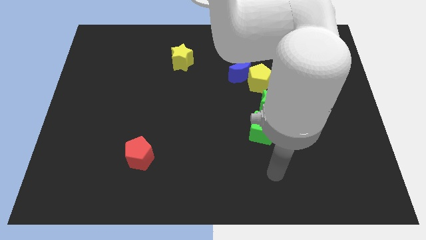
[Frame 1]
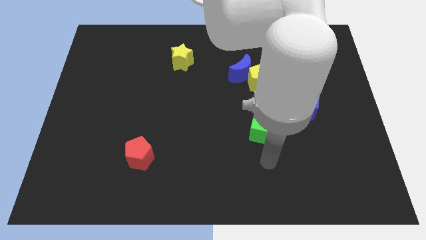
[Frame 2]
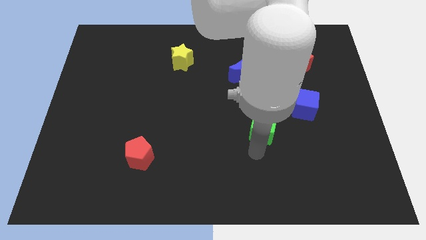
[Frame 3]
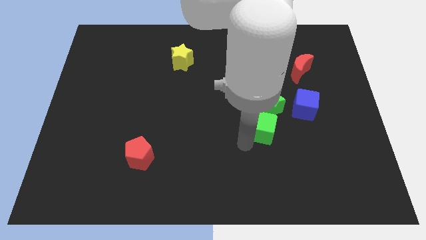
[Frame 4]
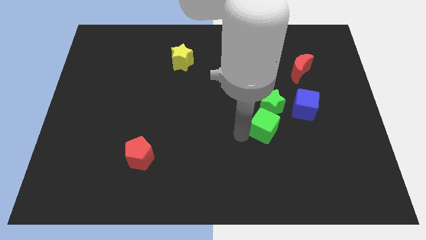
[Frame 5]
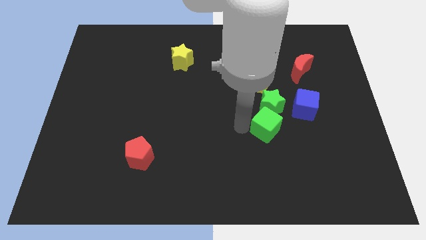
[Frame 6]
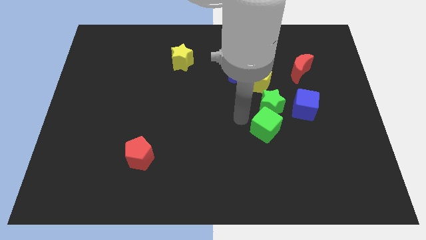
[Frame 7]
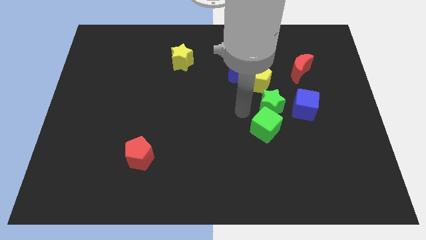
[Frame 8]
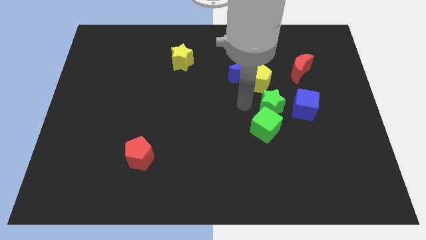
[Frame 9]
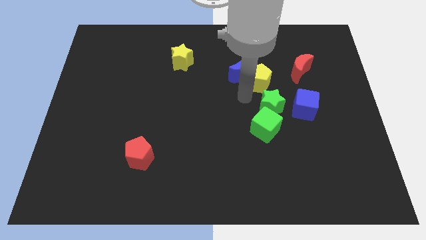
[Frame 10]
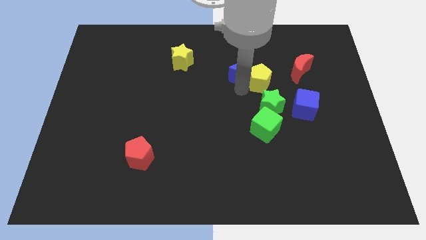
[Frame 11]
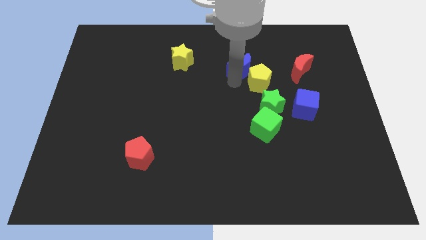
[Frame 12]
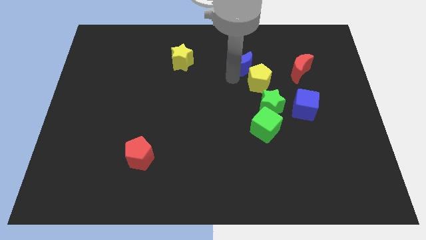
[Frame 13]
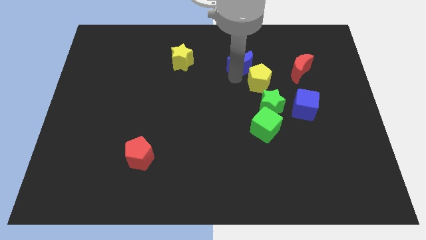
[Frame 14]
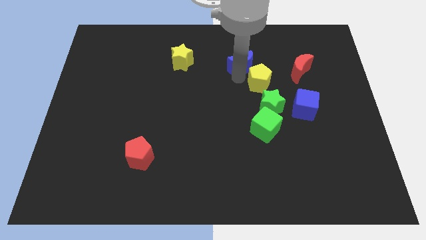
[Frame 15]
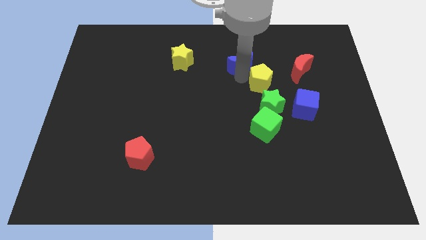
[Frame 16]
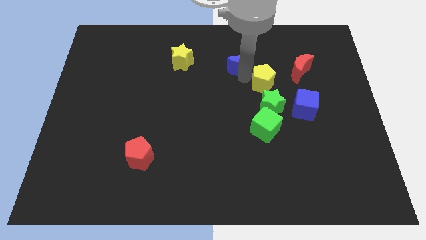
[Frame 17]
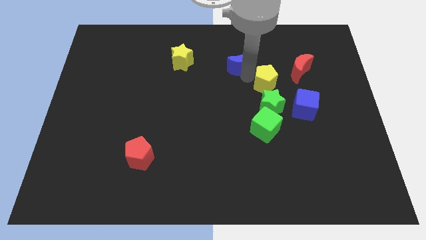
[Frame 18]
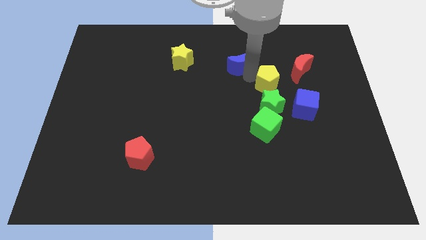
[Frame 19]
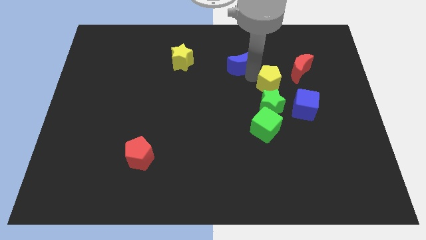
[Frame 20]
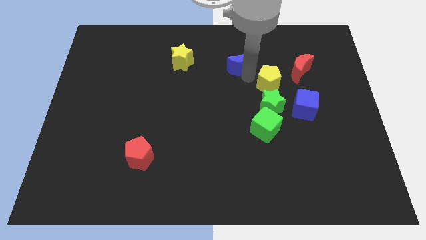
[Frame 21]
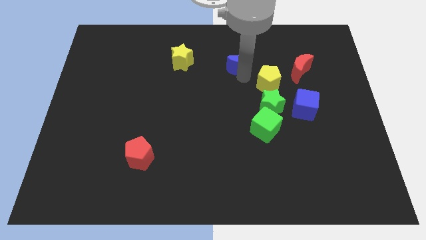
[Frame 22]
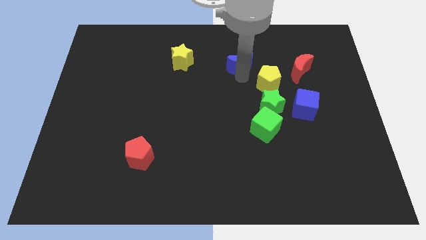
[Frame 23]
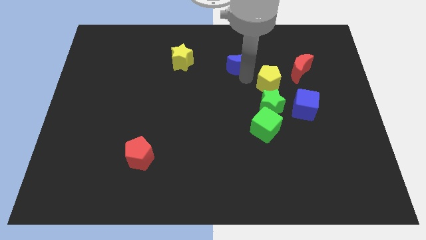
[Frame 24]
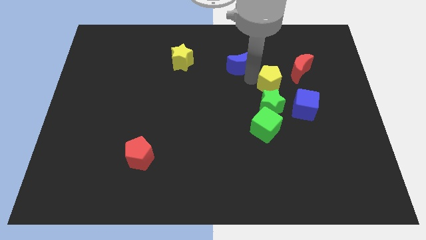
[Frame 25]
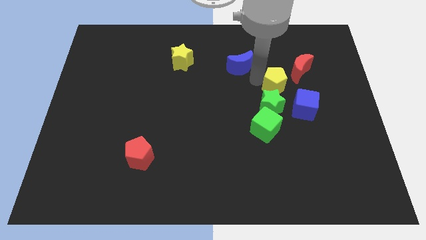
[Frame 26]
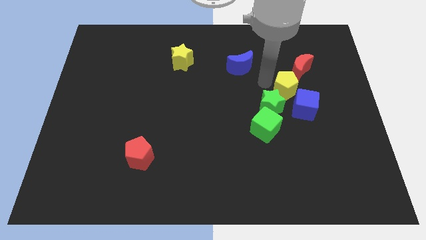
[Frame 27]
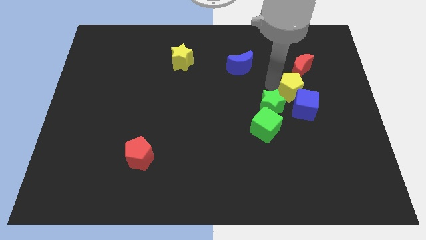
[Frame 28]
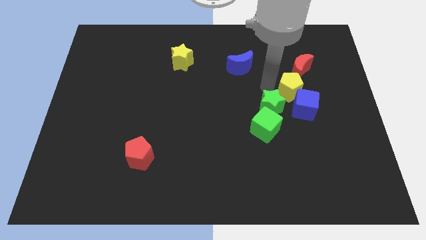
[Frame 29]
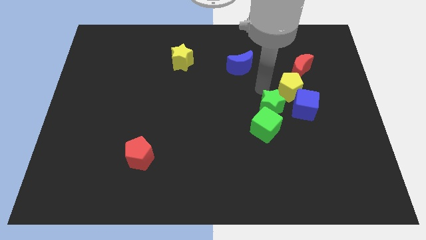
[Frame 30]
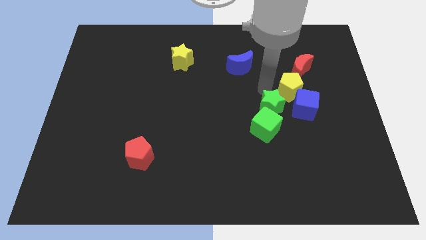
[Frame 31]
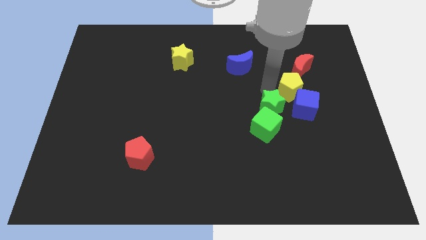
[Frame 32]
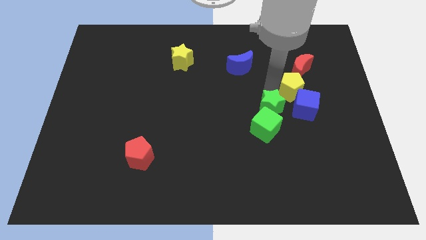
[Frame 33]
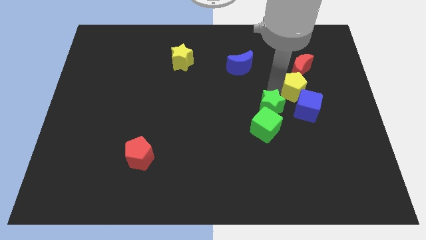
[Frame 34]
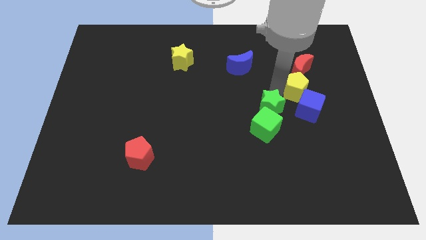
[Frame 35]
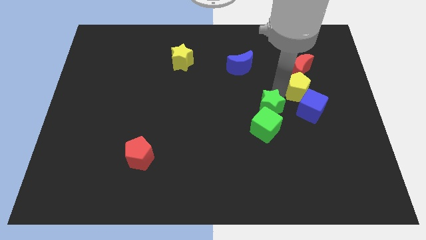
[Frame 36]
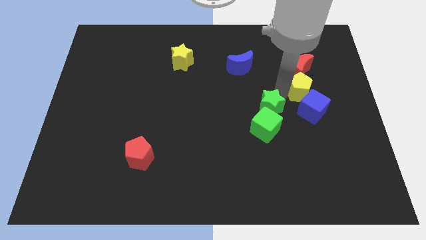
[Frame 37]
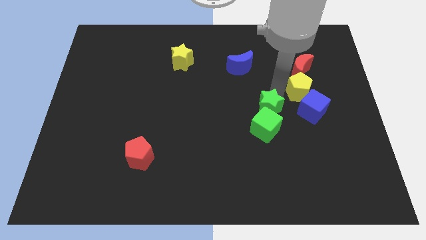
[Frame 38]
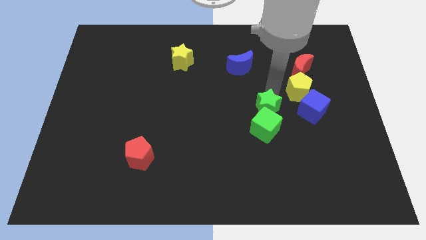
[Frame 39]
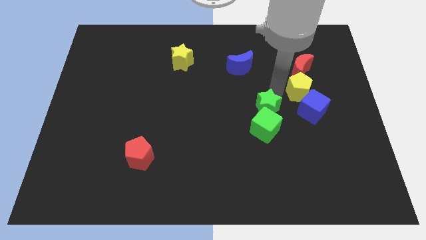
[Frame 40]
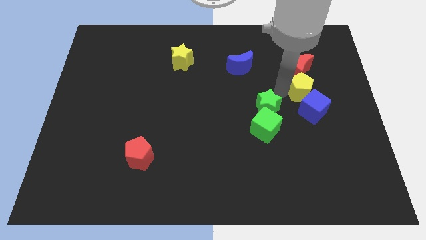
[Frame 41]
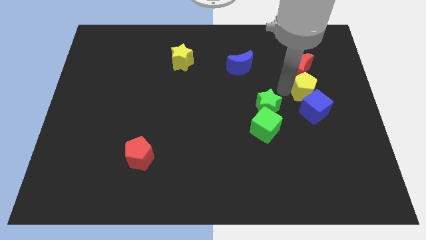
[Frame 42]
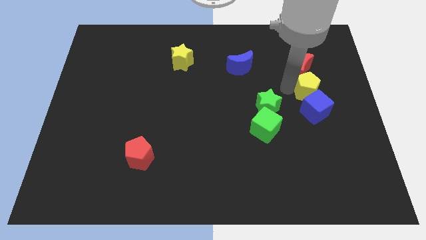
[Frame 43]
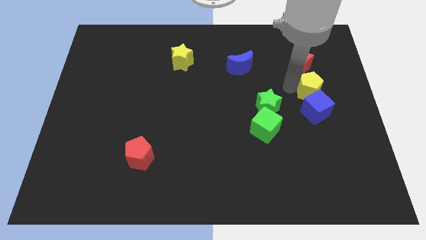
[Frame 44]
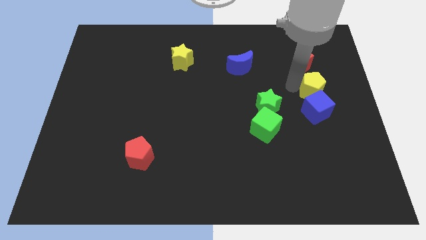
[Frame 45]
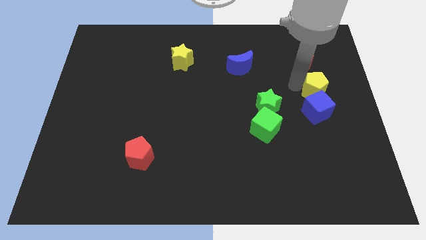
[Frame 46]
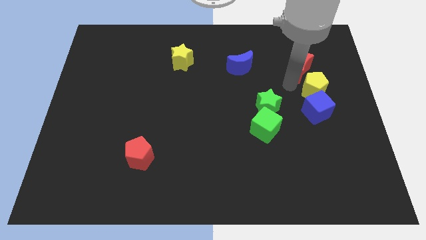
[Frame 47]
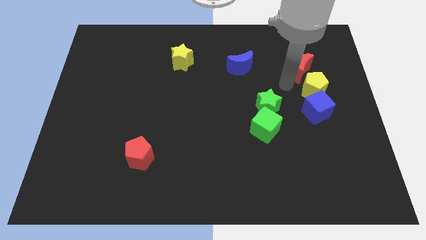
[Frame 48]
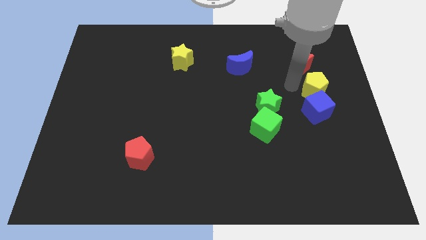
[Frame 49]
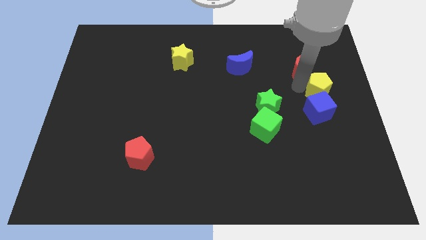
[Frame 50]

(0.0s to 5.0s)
slide the yellow pentagon to the center right

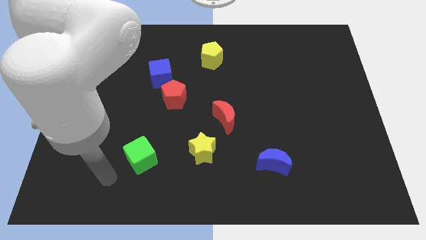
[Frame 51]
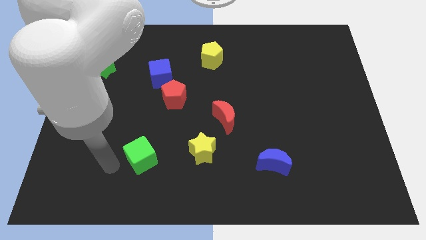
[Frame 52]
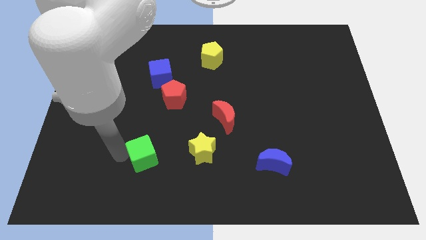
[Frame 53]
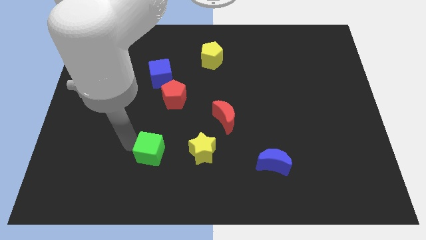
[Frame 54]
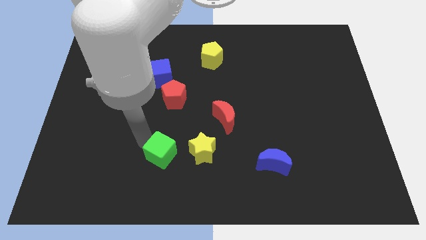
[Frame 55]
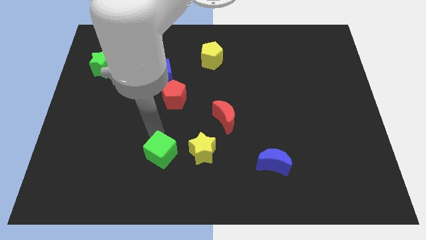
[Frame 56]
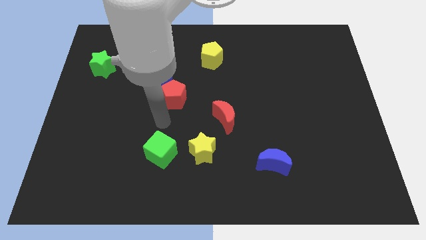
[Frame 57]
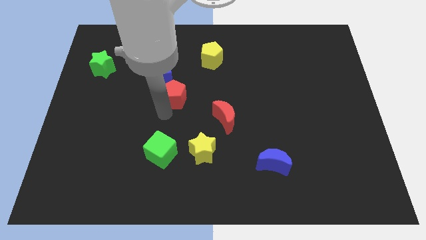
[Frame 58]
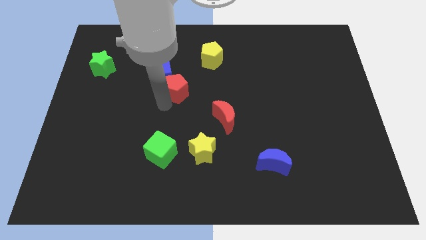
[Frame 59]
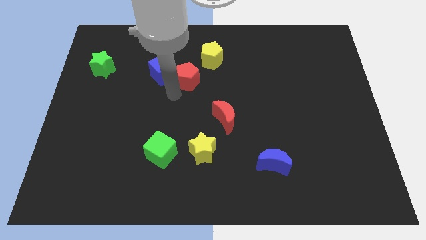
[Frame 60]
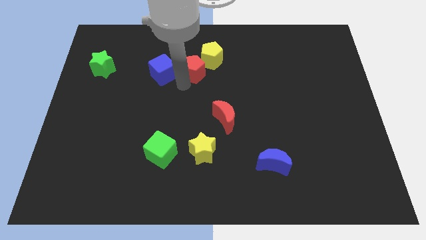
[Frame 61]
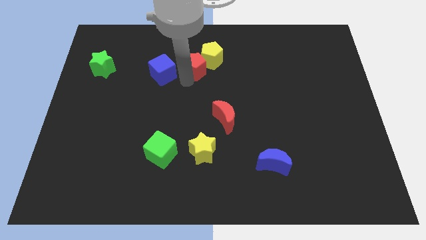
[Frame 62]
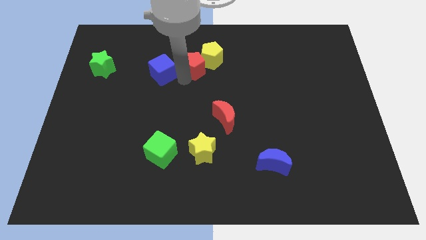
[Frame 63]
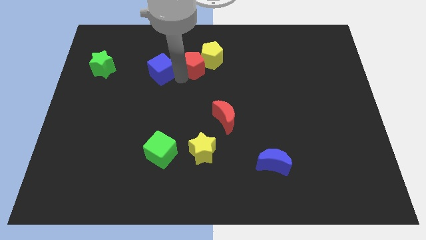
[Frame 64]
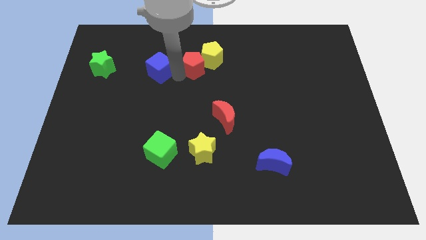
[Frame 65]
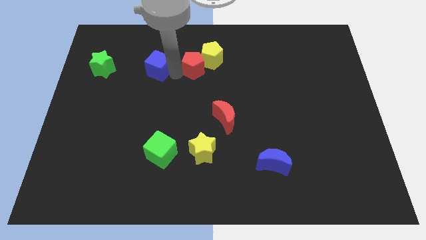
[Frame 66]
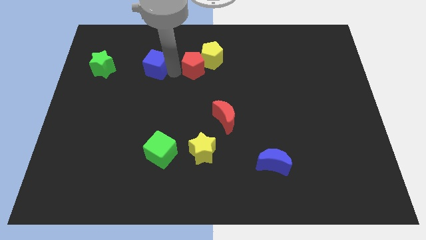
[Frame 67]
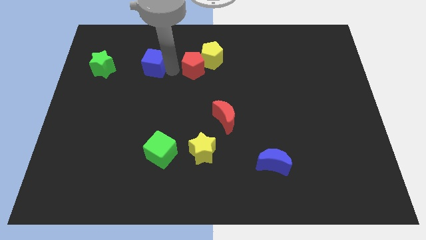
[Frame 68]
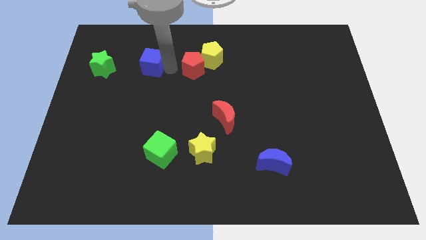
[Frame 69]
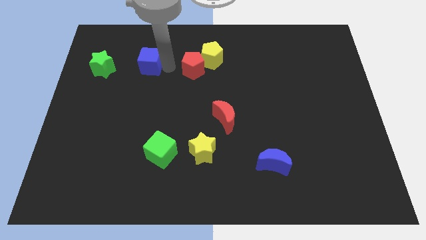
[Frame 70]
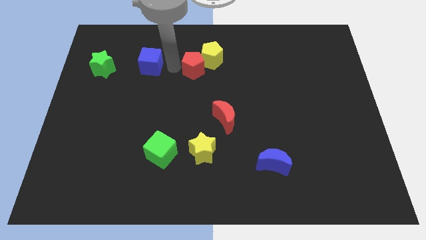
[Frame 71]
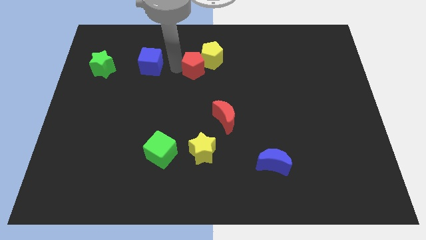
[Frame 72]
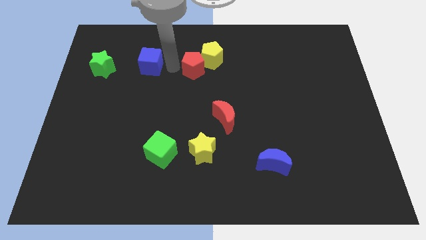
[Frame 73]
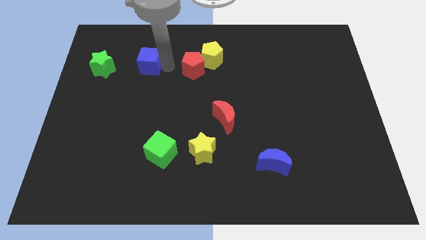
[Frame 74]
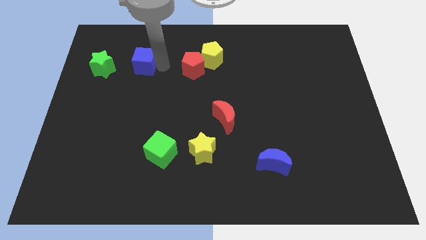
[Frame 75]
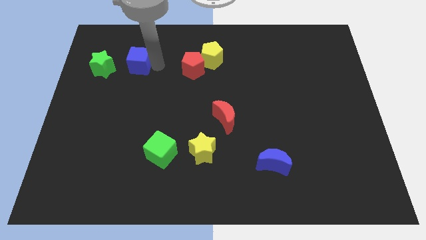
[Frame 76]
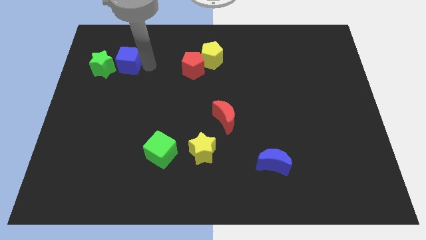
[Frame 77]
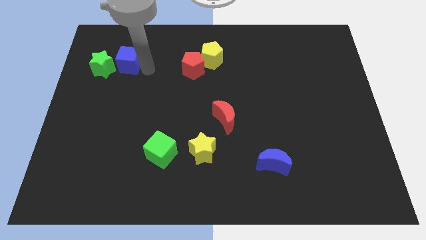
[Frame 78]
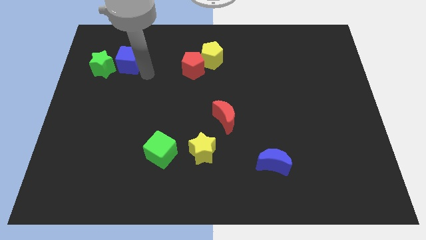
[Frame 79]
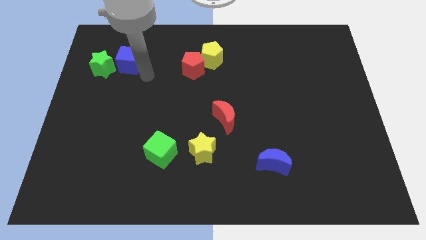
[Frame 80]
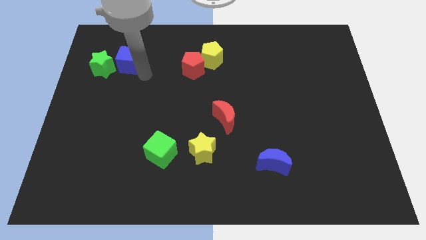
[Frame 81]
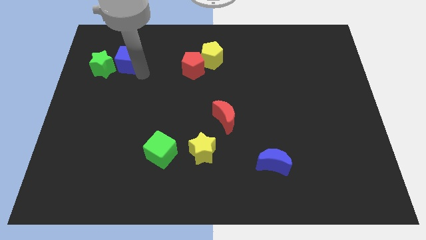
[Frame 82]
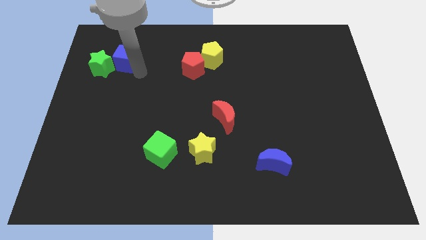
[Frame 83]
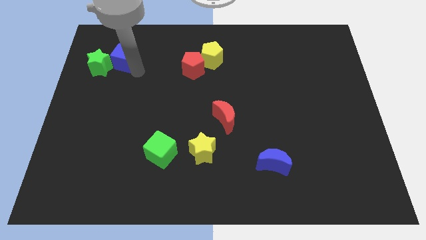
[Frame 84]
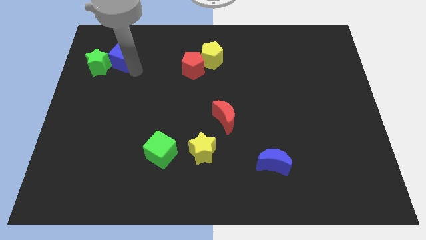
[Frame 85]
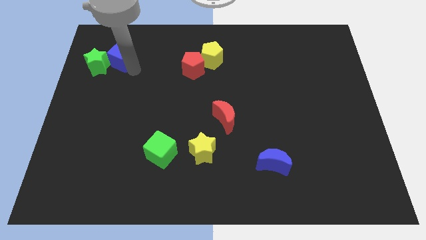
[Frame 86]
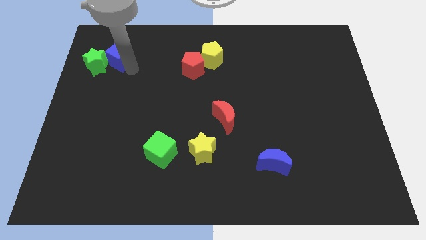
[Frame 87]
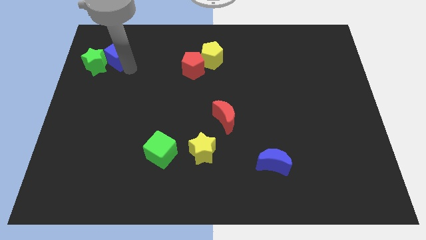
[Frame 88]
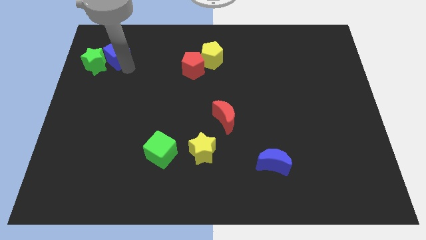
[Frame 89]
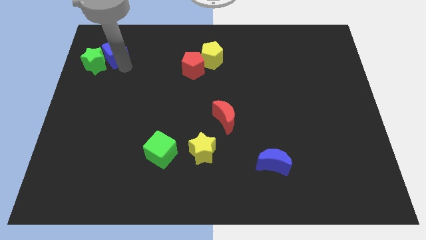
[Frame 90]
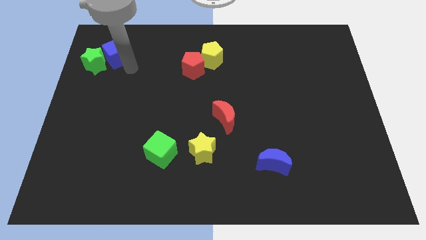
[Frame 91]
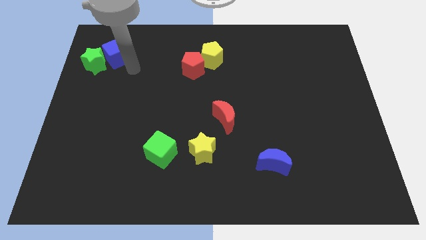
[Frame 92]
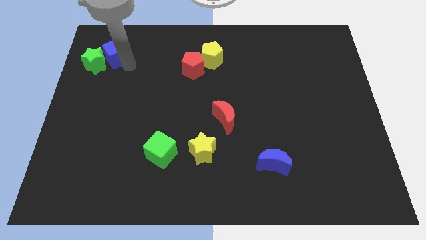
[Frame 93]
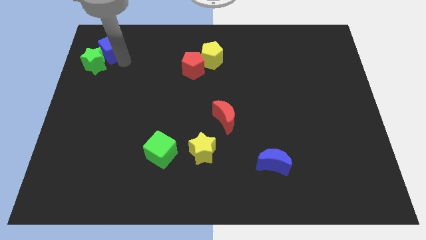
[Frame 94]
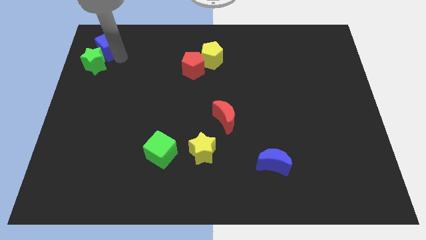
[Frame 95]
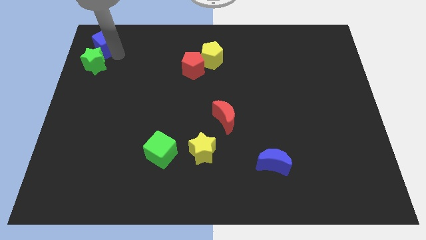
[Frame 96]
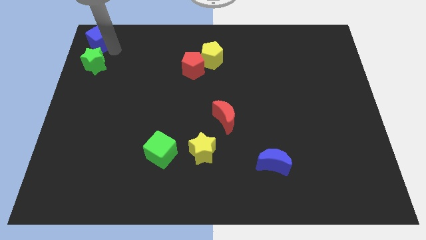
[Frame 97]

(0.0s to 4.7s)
put the blue cube to the upper left corner
